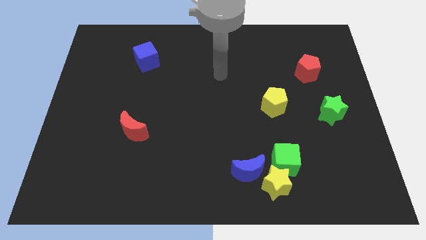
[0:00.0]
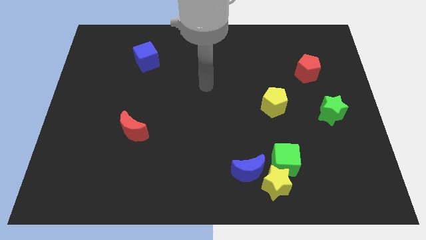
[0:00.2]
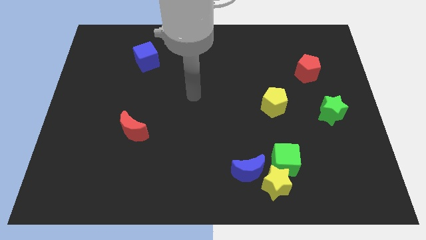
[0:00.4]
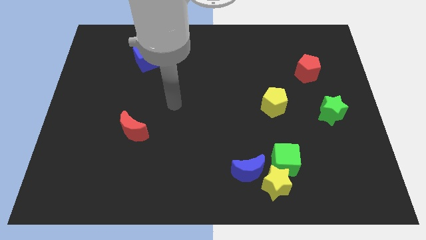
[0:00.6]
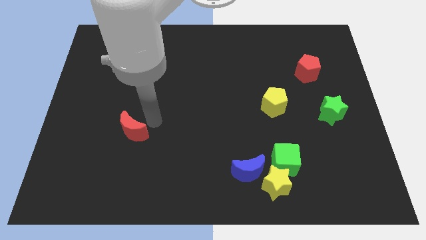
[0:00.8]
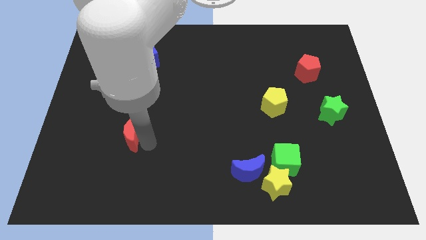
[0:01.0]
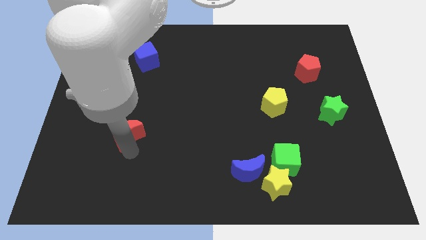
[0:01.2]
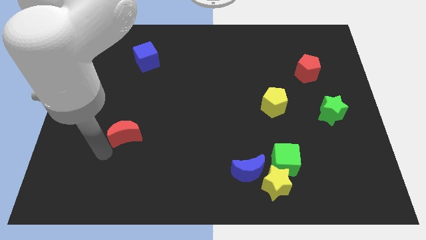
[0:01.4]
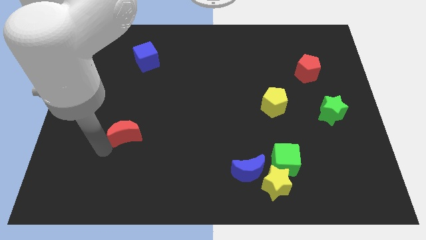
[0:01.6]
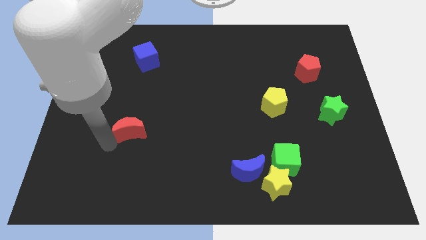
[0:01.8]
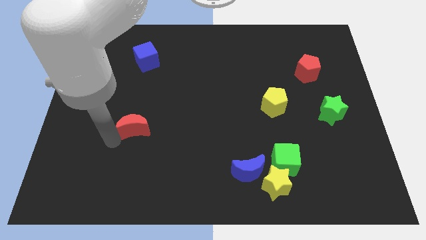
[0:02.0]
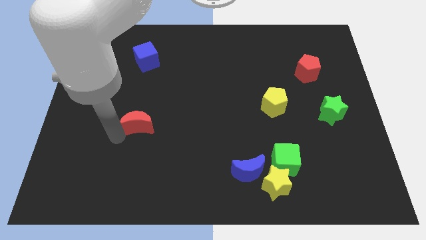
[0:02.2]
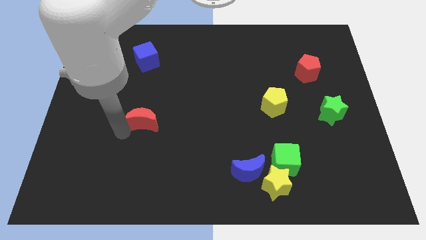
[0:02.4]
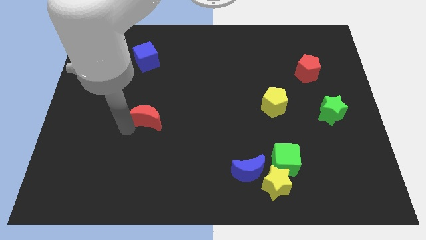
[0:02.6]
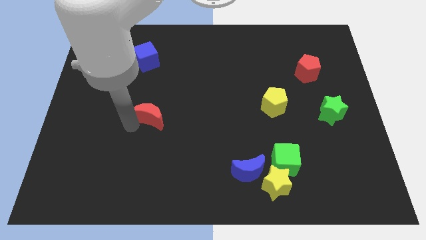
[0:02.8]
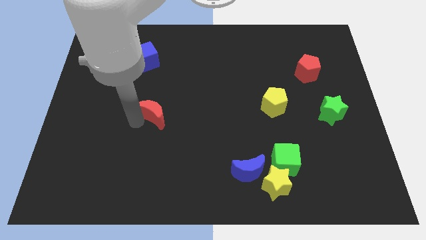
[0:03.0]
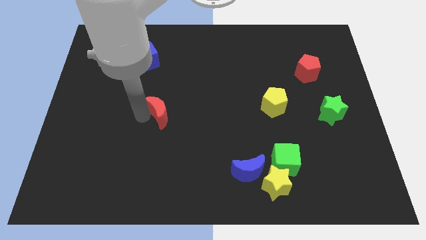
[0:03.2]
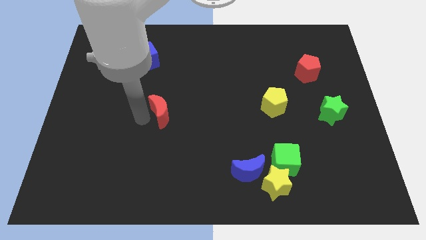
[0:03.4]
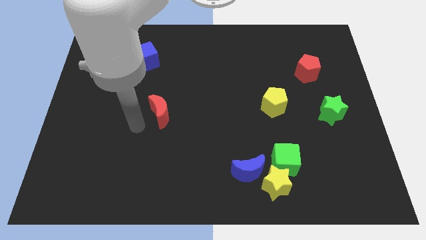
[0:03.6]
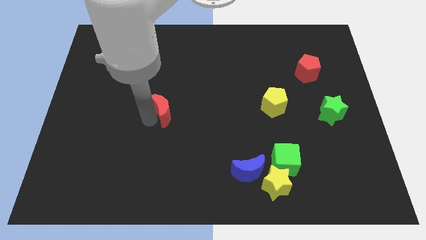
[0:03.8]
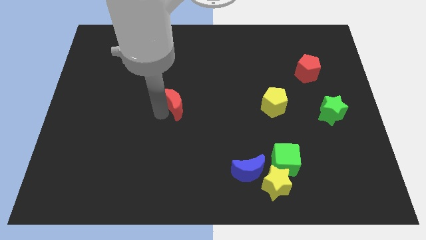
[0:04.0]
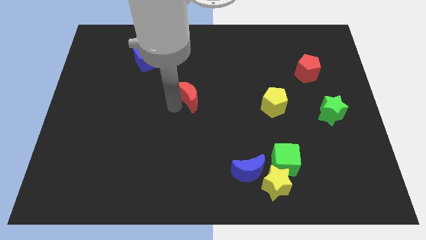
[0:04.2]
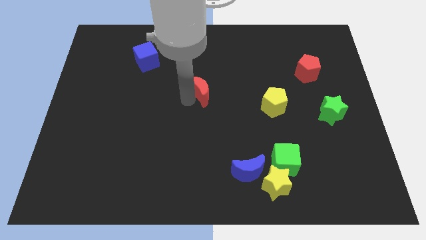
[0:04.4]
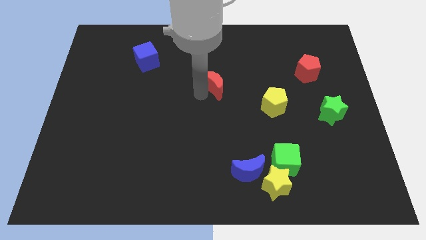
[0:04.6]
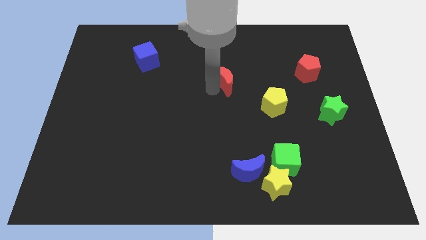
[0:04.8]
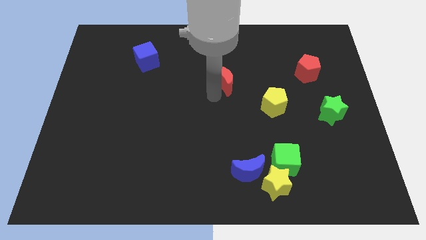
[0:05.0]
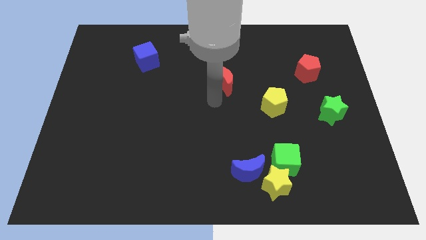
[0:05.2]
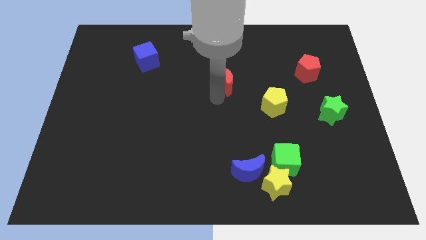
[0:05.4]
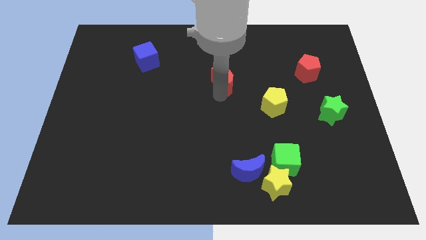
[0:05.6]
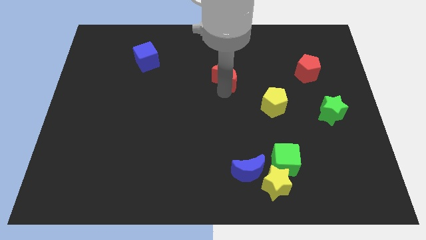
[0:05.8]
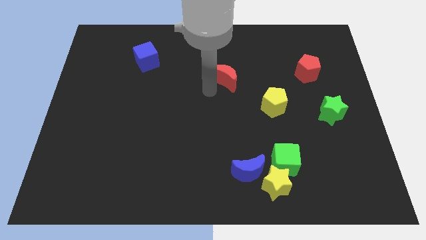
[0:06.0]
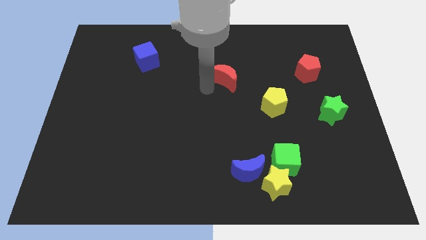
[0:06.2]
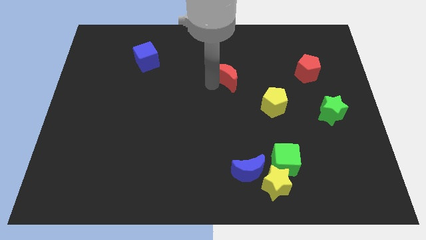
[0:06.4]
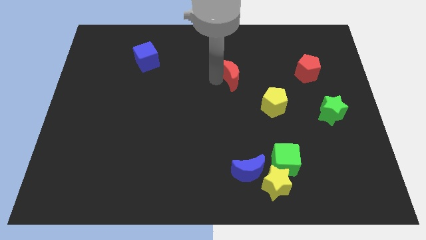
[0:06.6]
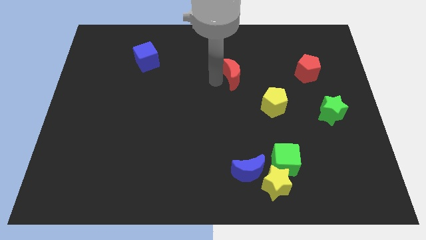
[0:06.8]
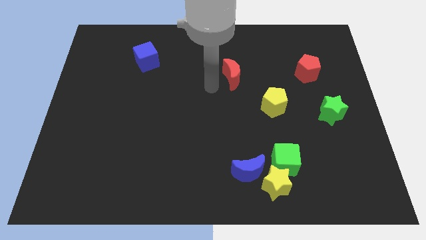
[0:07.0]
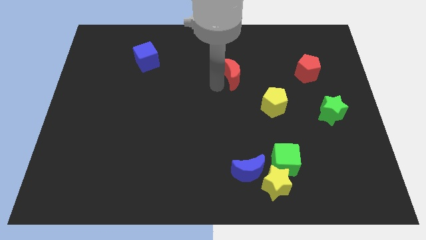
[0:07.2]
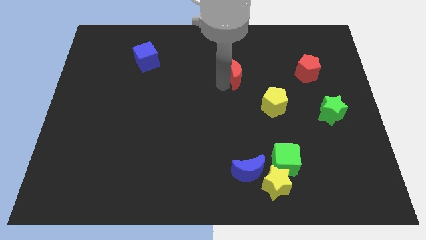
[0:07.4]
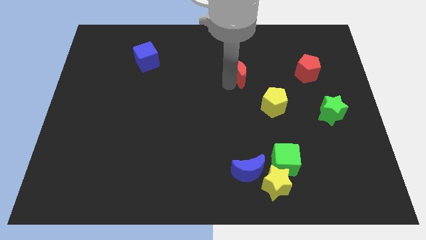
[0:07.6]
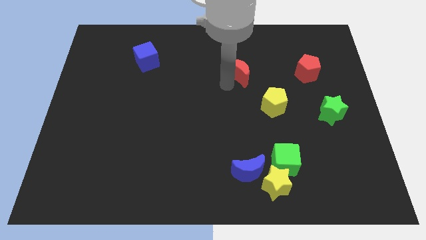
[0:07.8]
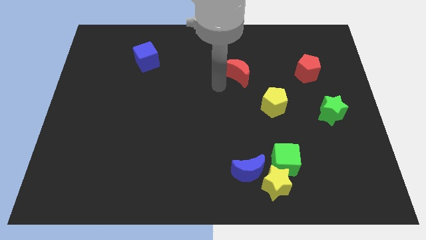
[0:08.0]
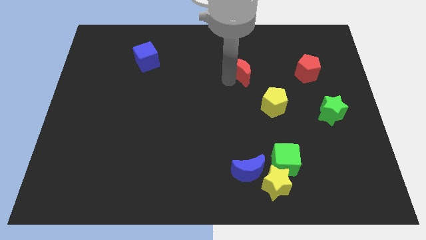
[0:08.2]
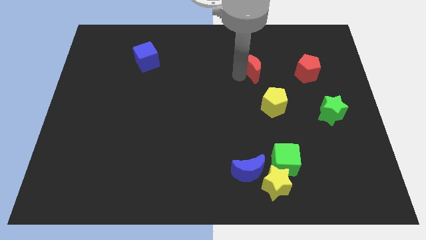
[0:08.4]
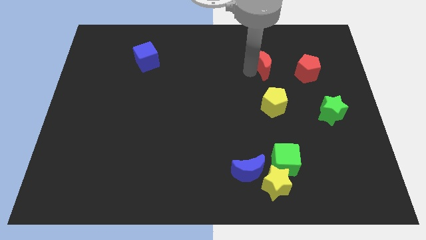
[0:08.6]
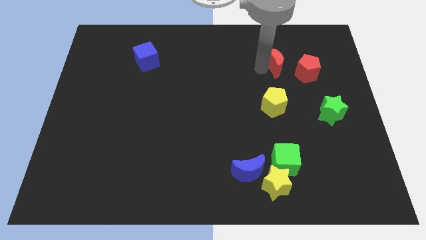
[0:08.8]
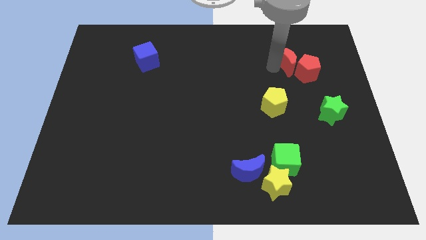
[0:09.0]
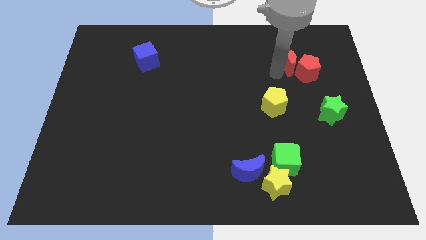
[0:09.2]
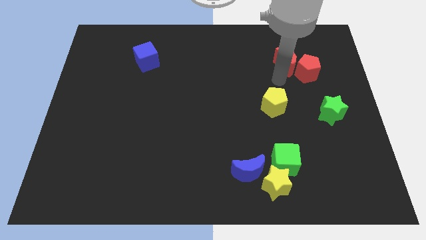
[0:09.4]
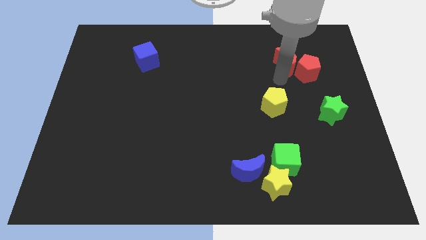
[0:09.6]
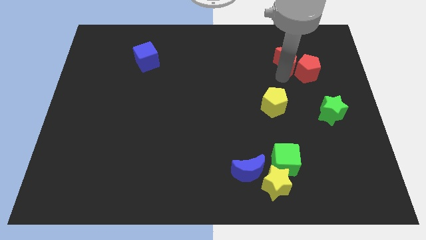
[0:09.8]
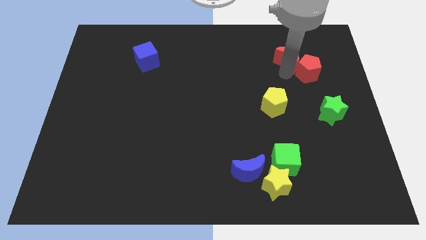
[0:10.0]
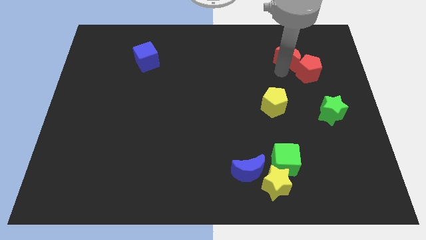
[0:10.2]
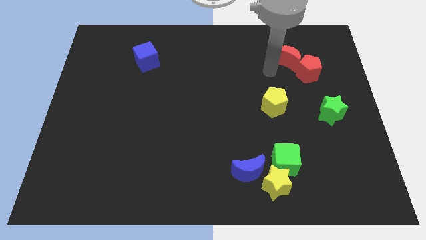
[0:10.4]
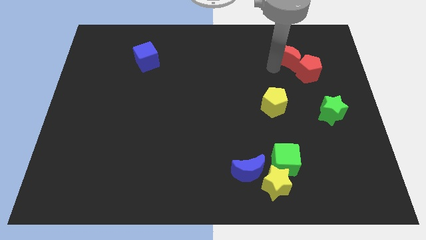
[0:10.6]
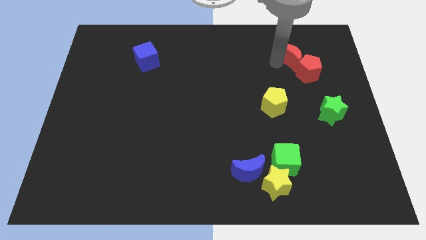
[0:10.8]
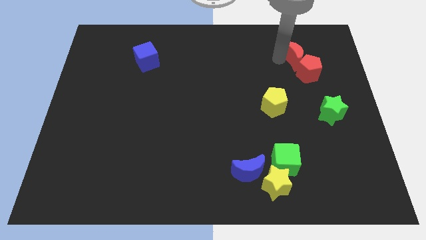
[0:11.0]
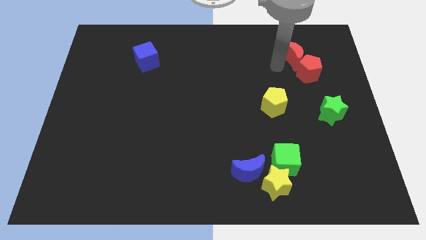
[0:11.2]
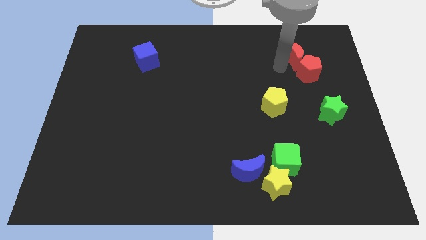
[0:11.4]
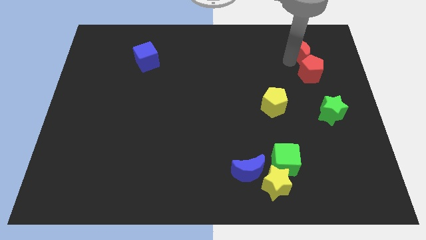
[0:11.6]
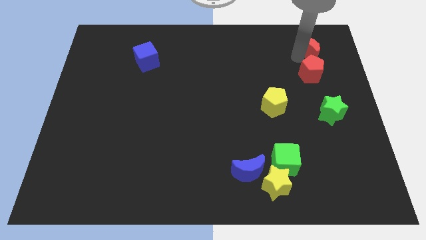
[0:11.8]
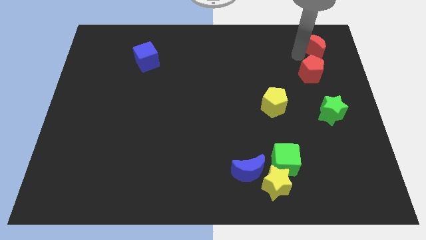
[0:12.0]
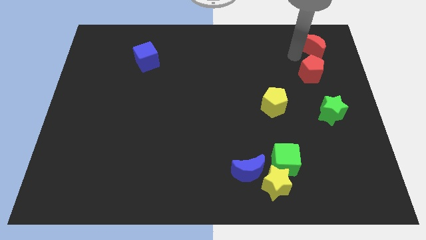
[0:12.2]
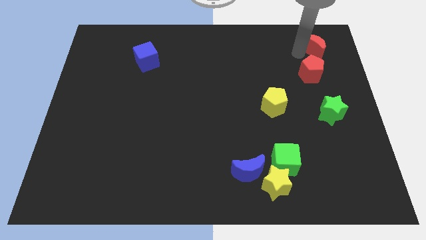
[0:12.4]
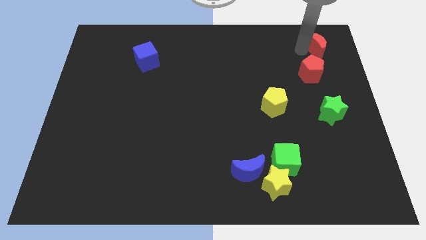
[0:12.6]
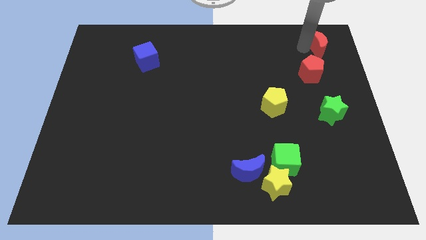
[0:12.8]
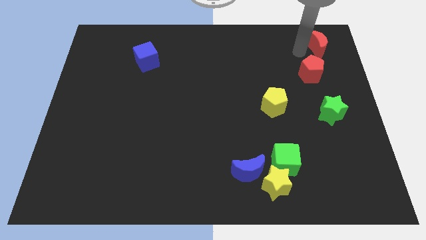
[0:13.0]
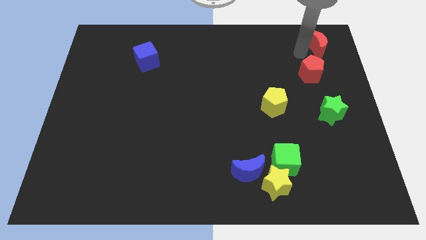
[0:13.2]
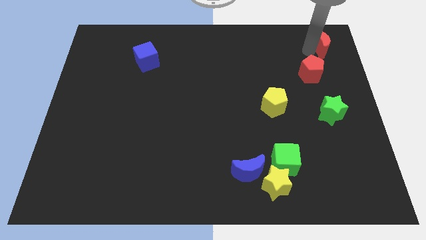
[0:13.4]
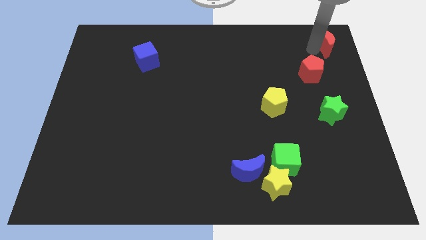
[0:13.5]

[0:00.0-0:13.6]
push the red moon to the top right of the board
